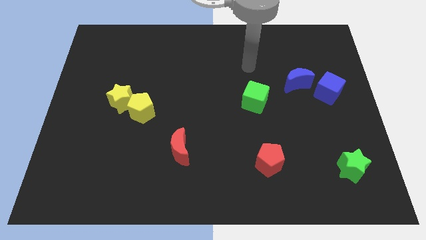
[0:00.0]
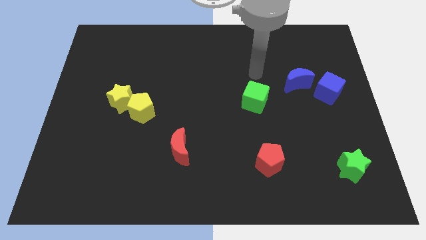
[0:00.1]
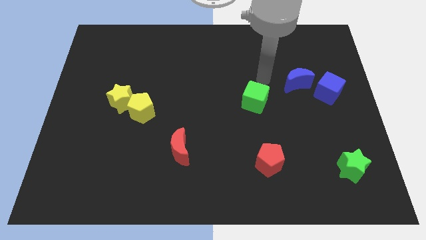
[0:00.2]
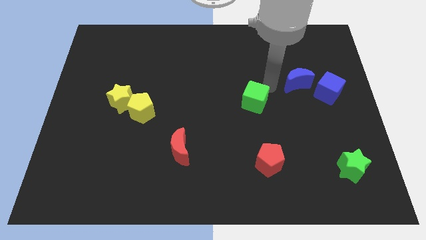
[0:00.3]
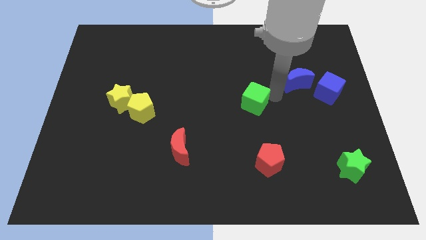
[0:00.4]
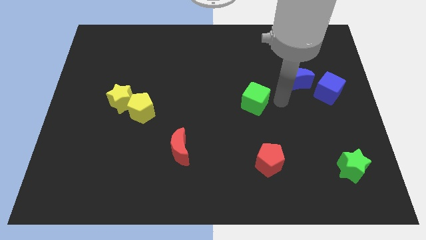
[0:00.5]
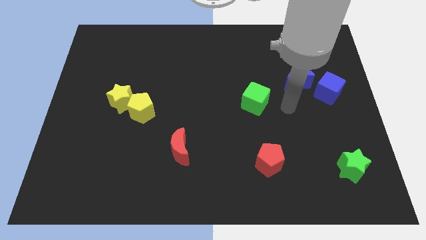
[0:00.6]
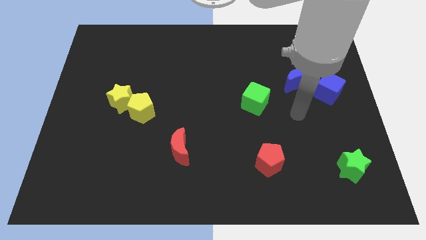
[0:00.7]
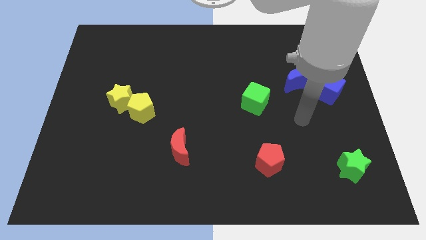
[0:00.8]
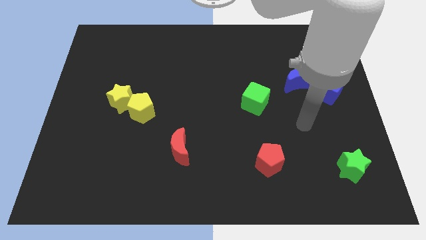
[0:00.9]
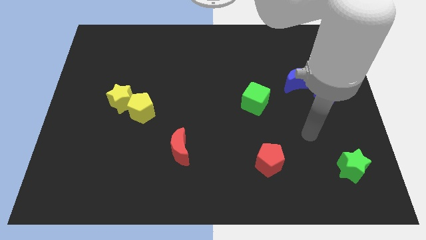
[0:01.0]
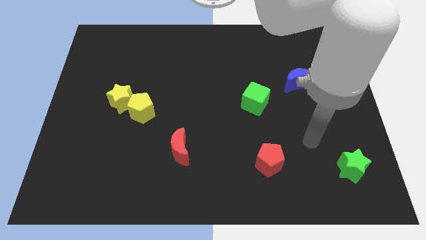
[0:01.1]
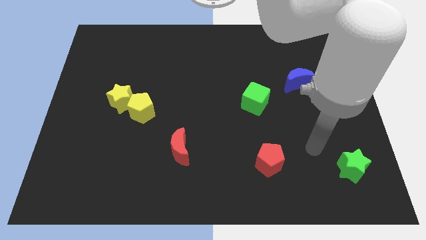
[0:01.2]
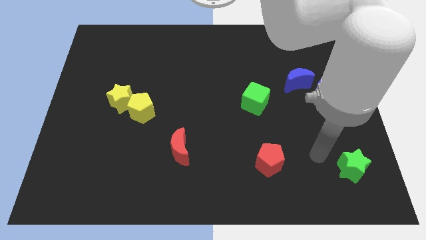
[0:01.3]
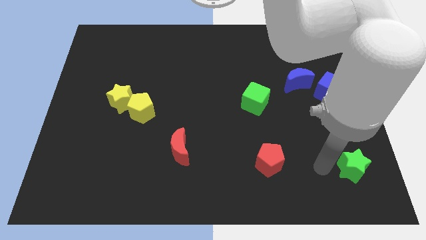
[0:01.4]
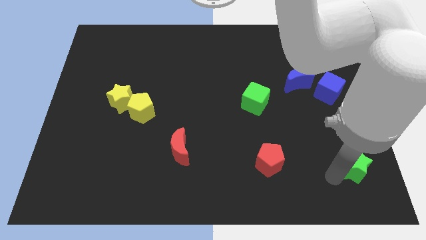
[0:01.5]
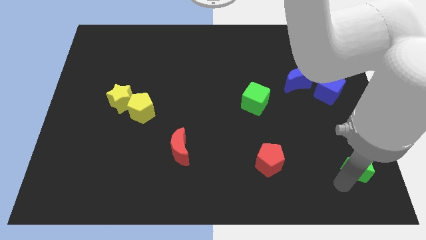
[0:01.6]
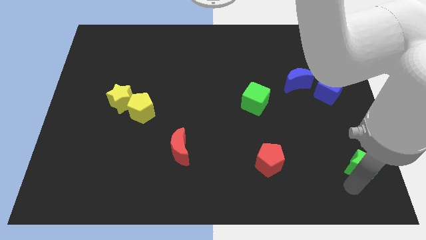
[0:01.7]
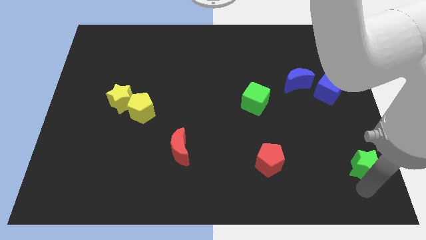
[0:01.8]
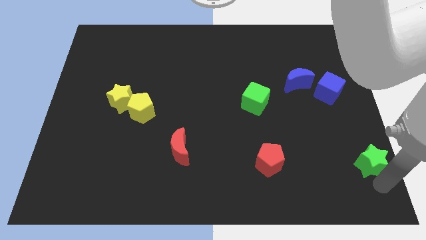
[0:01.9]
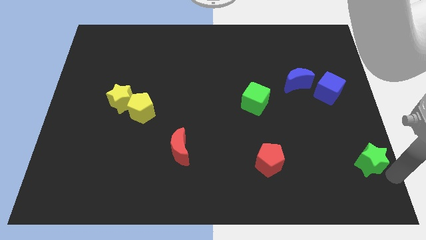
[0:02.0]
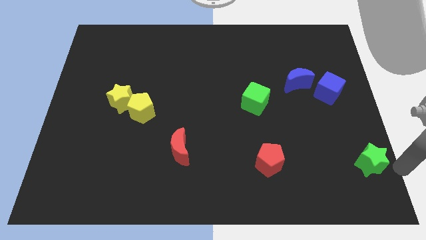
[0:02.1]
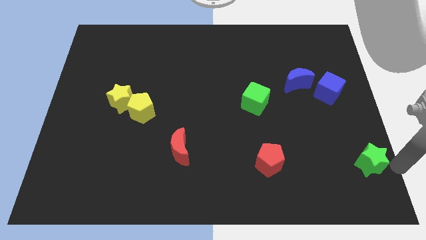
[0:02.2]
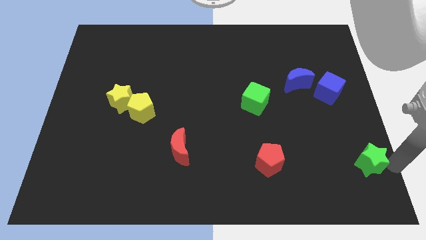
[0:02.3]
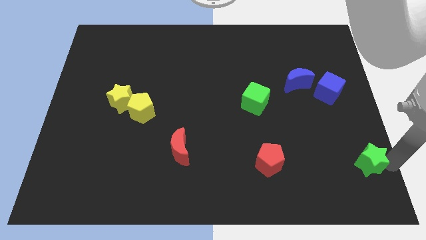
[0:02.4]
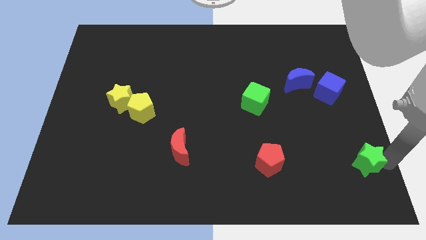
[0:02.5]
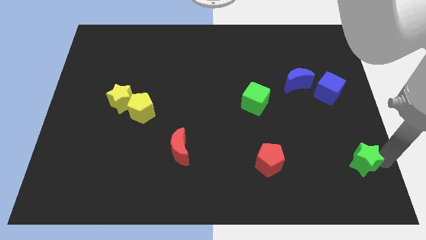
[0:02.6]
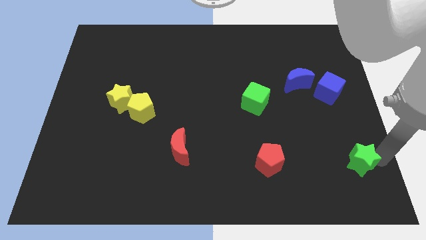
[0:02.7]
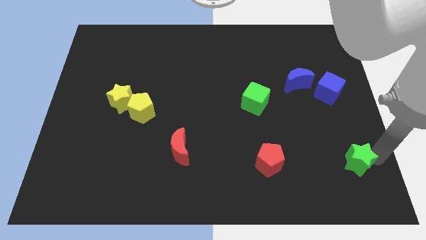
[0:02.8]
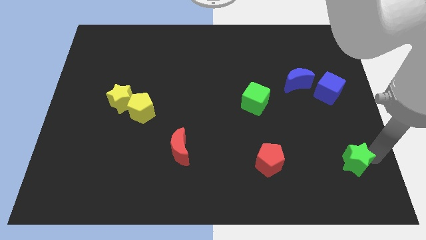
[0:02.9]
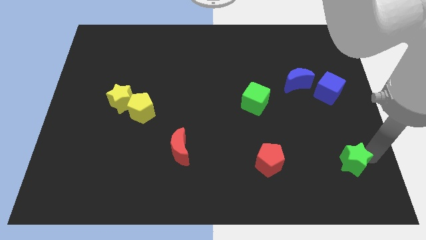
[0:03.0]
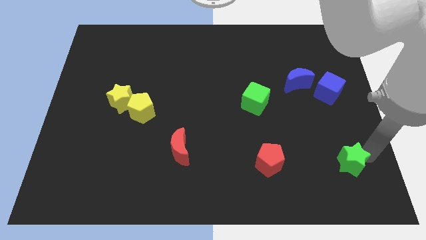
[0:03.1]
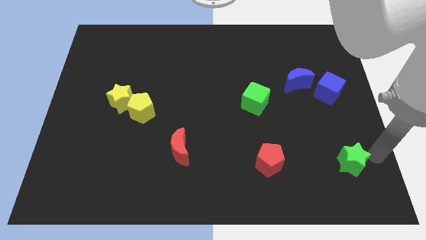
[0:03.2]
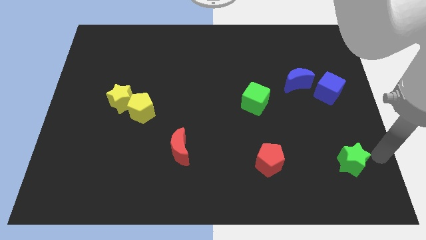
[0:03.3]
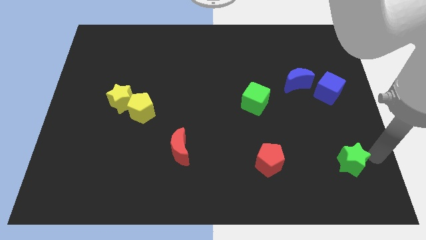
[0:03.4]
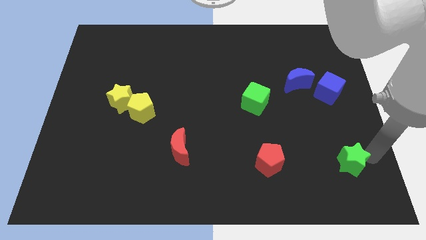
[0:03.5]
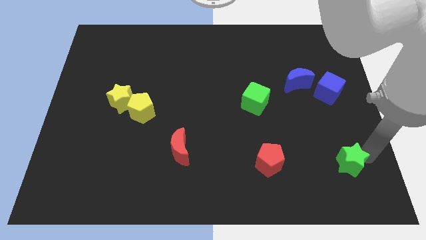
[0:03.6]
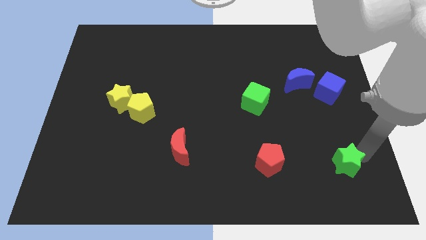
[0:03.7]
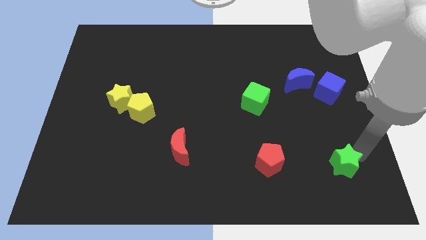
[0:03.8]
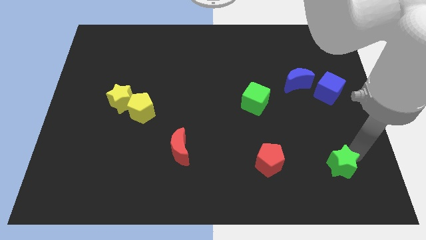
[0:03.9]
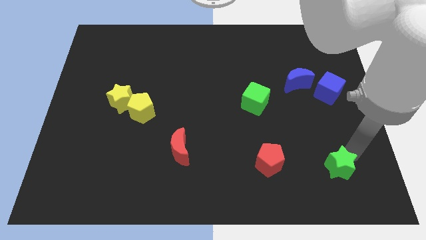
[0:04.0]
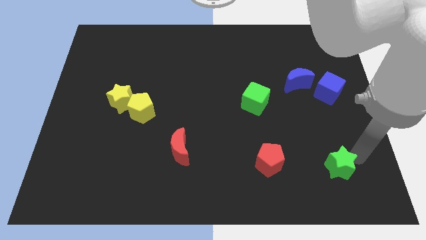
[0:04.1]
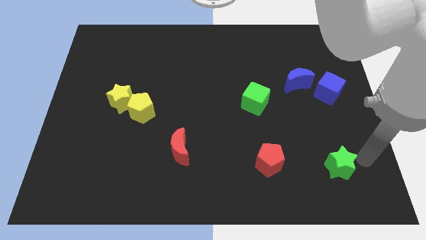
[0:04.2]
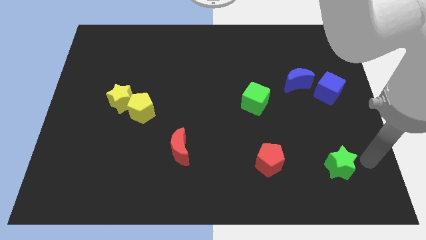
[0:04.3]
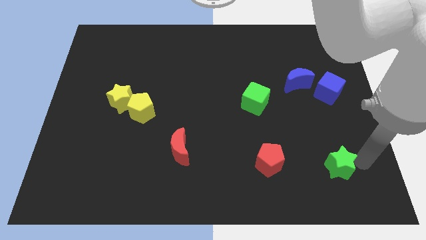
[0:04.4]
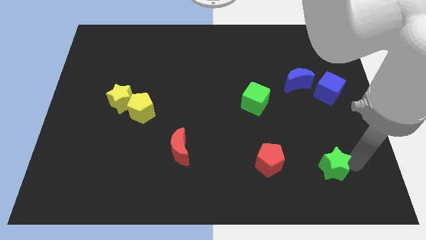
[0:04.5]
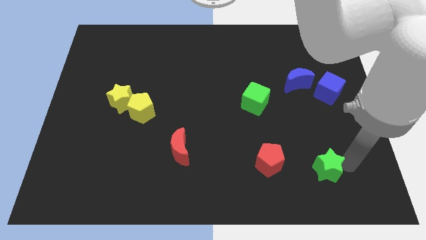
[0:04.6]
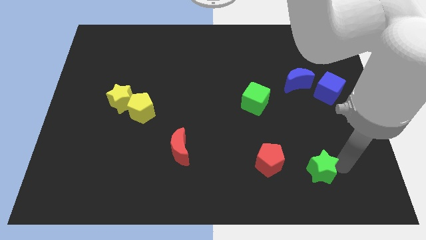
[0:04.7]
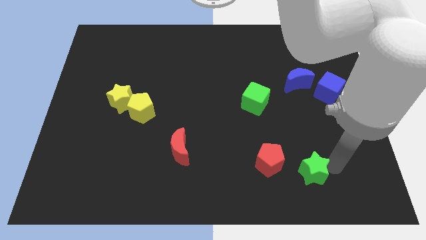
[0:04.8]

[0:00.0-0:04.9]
move the green star to the bottom right side of the red pentagon

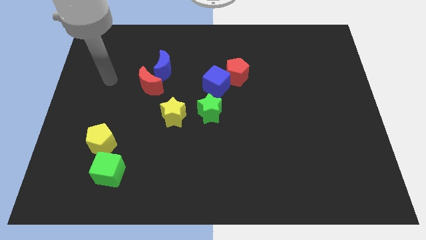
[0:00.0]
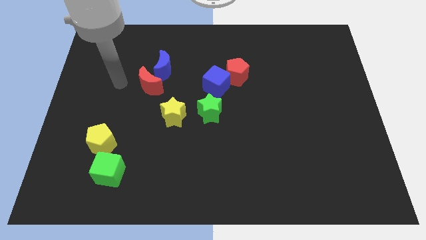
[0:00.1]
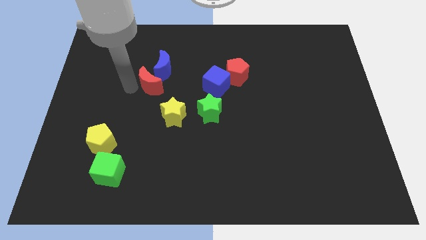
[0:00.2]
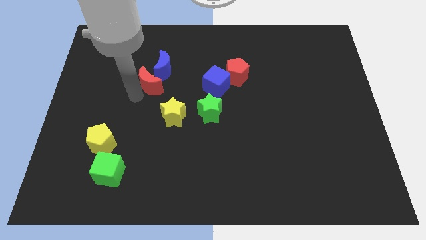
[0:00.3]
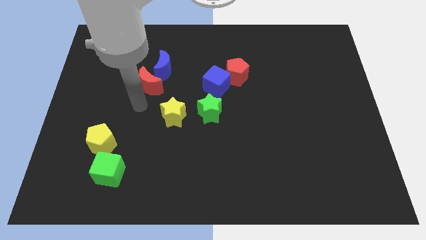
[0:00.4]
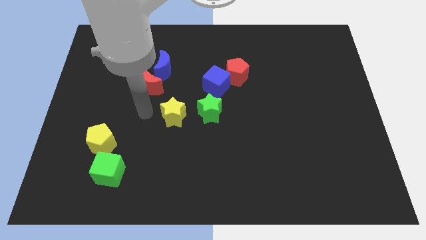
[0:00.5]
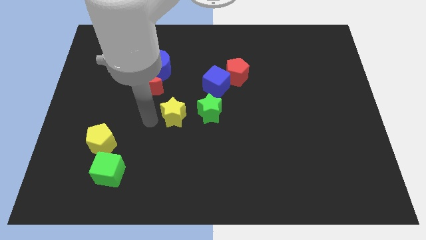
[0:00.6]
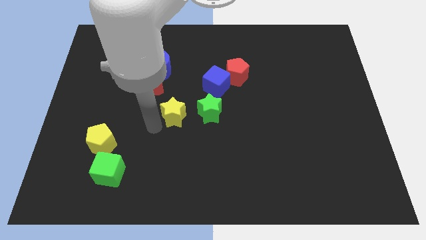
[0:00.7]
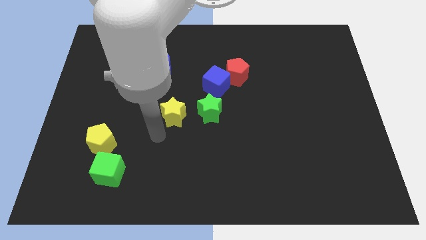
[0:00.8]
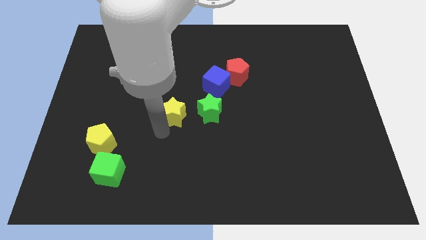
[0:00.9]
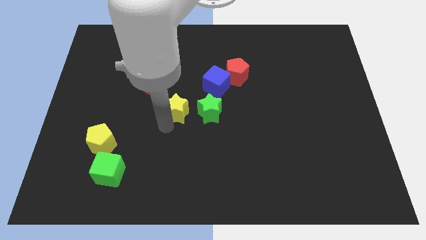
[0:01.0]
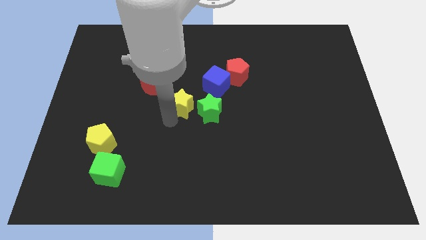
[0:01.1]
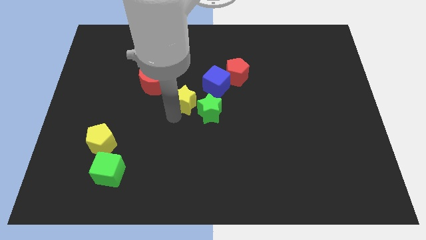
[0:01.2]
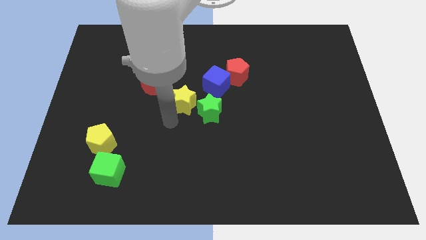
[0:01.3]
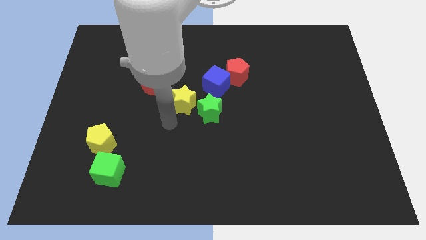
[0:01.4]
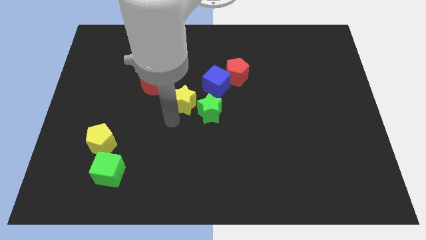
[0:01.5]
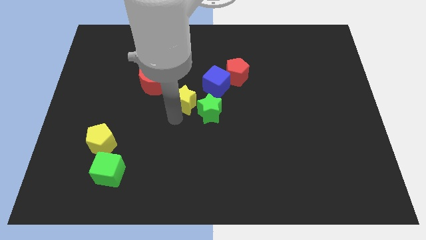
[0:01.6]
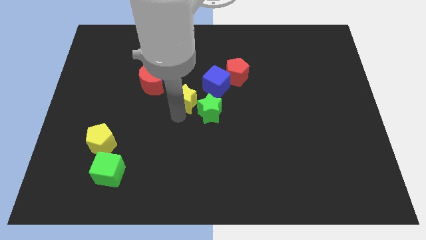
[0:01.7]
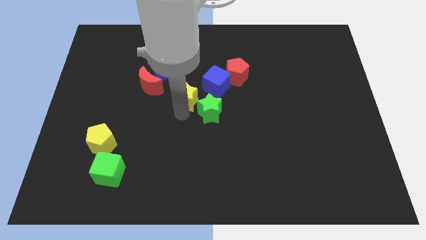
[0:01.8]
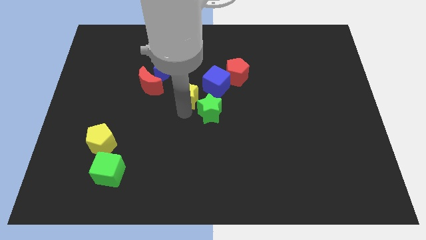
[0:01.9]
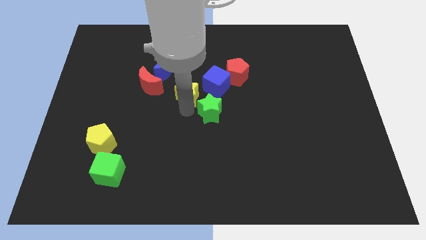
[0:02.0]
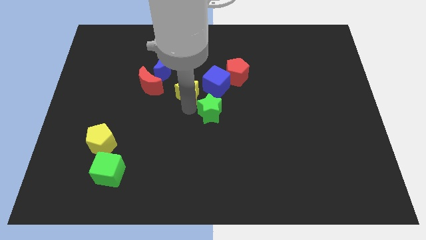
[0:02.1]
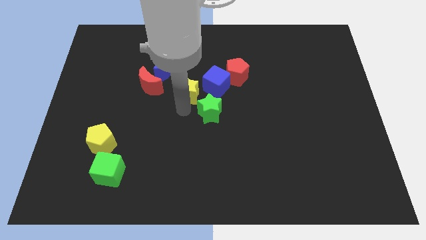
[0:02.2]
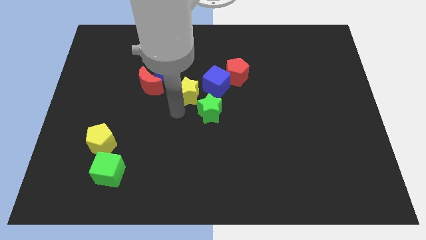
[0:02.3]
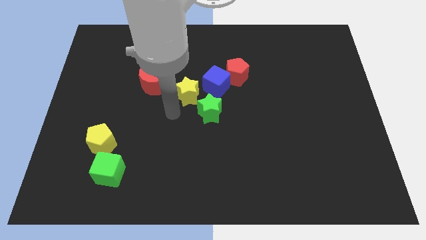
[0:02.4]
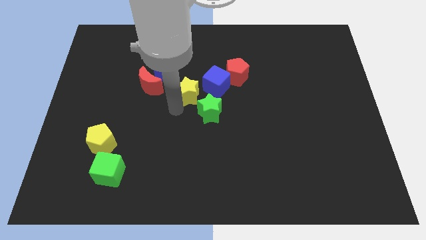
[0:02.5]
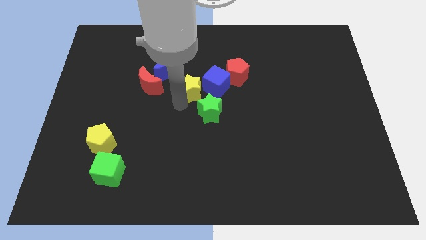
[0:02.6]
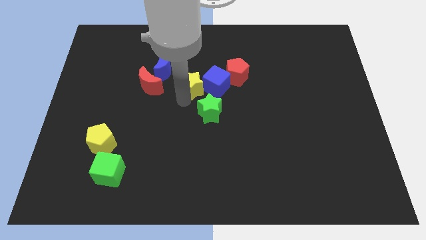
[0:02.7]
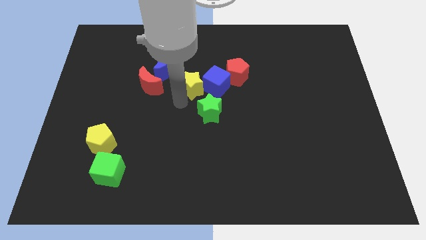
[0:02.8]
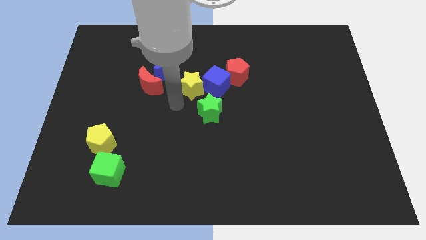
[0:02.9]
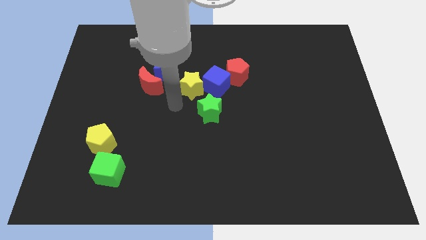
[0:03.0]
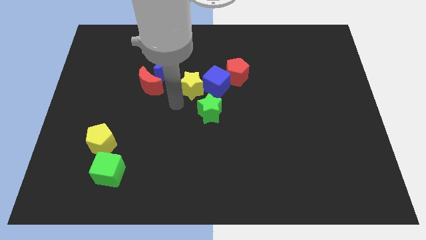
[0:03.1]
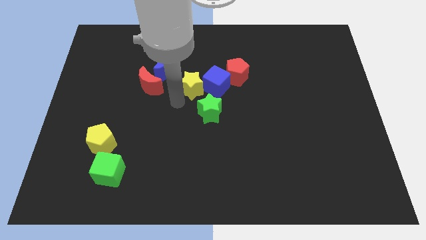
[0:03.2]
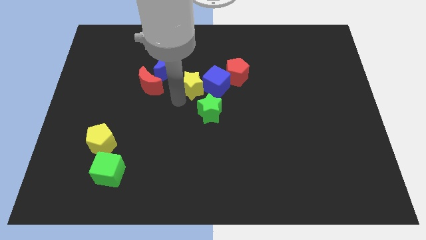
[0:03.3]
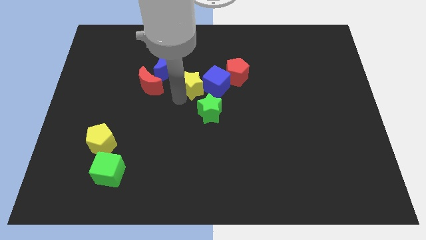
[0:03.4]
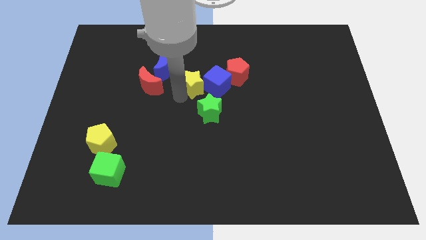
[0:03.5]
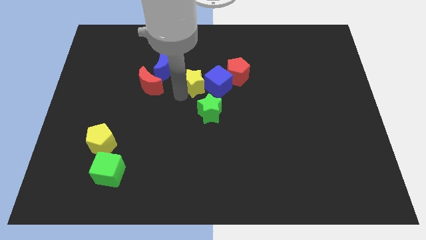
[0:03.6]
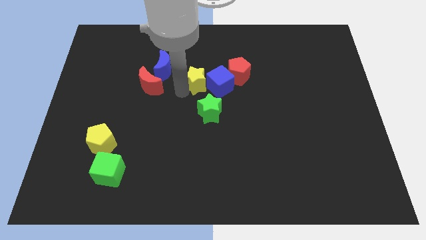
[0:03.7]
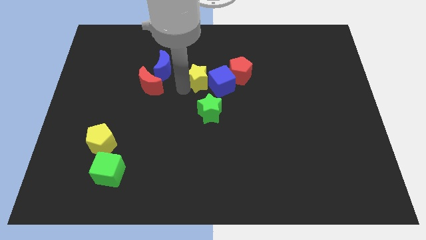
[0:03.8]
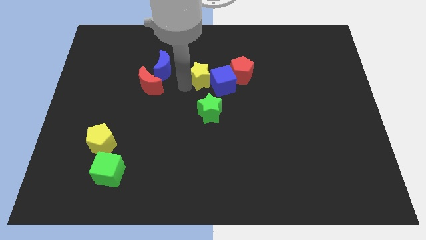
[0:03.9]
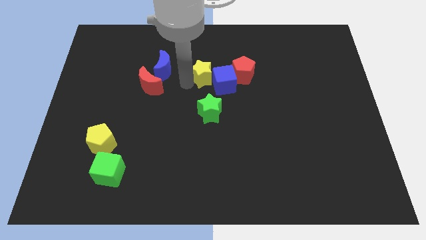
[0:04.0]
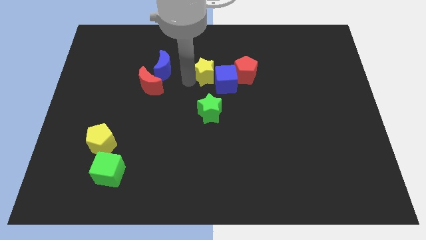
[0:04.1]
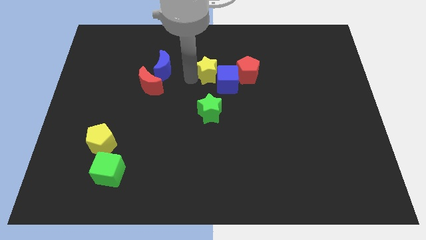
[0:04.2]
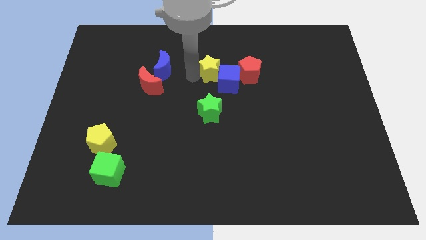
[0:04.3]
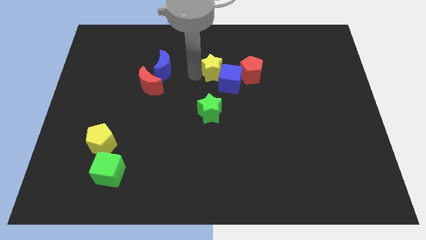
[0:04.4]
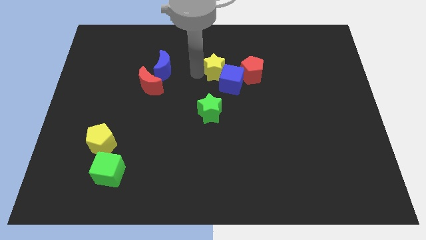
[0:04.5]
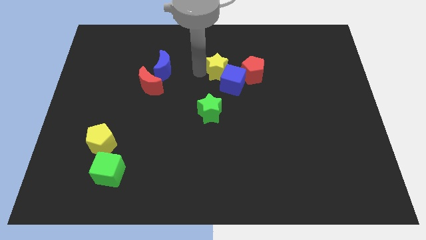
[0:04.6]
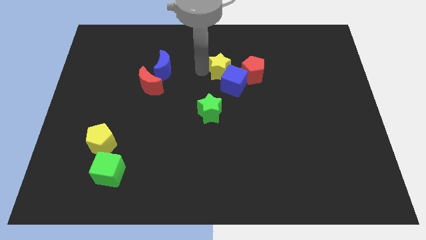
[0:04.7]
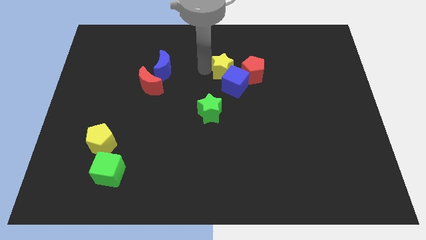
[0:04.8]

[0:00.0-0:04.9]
move the yellow star to the top left of the red pentagon
